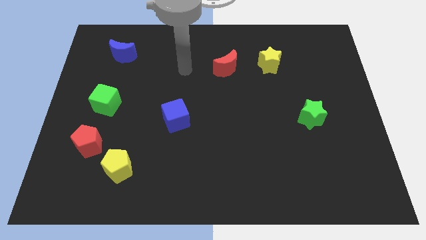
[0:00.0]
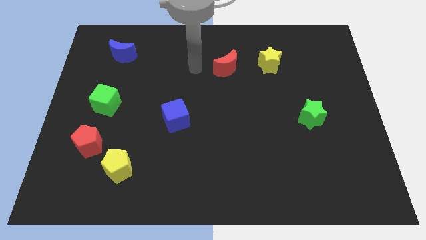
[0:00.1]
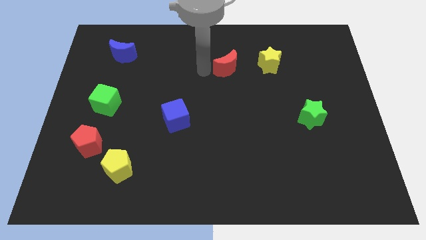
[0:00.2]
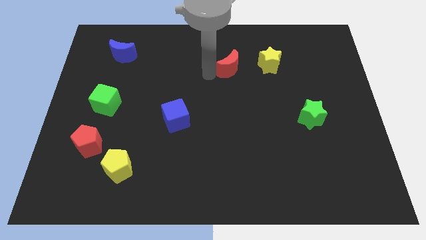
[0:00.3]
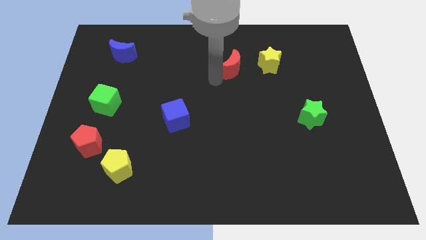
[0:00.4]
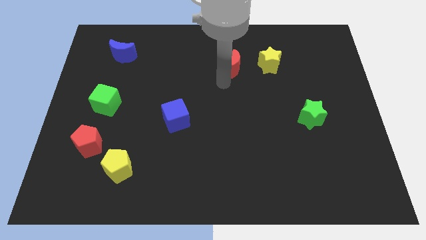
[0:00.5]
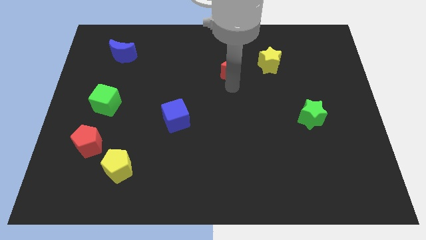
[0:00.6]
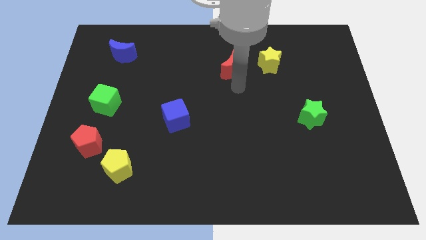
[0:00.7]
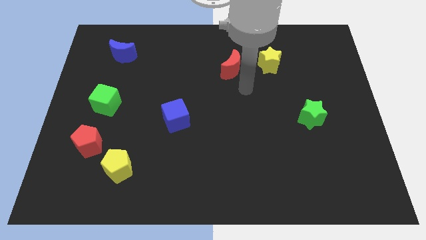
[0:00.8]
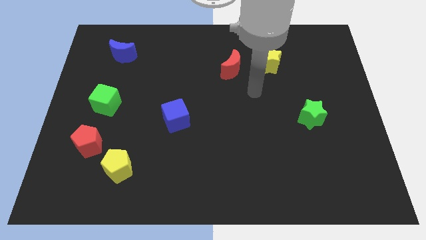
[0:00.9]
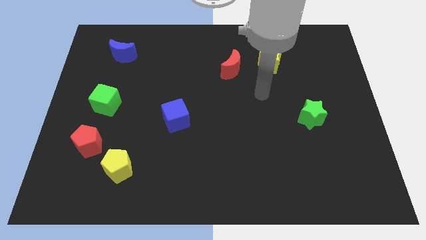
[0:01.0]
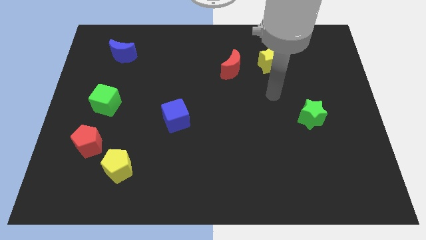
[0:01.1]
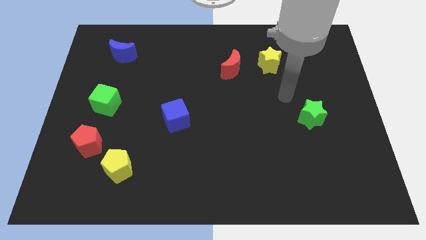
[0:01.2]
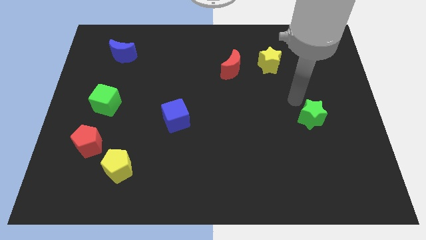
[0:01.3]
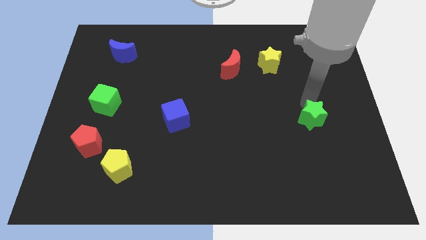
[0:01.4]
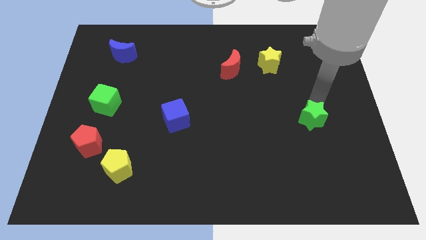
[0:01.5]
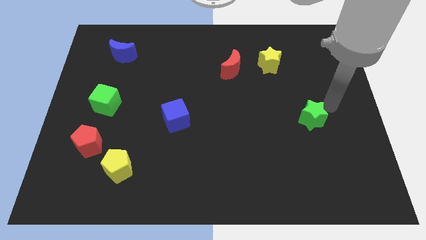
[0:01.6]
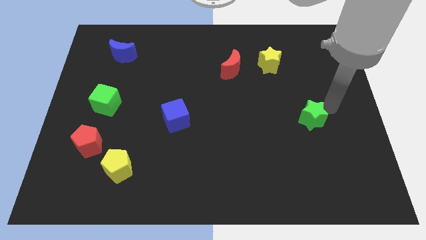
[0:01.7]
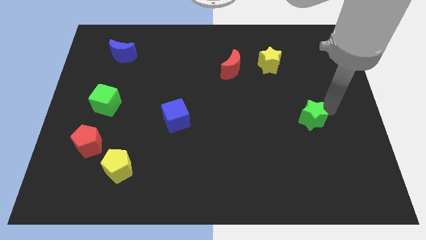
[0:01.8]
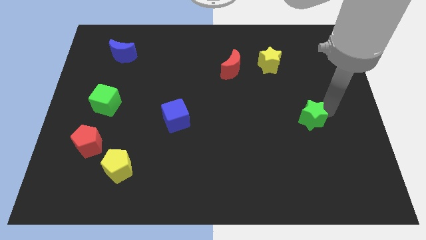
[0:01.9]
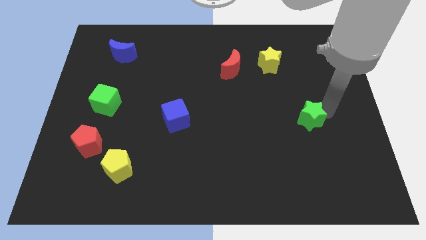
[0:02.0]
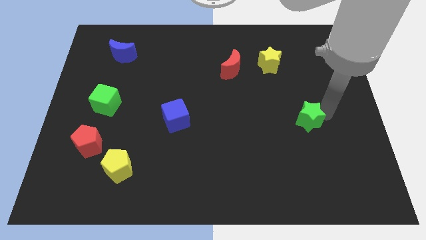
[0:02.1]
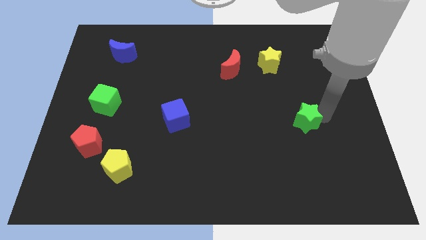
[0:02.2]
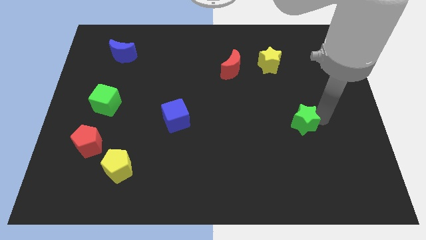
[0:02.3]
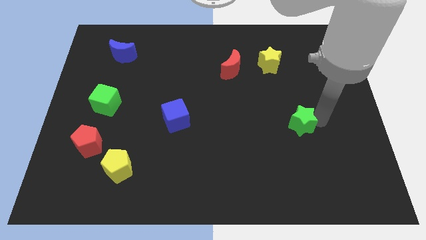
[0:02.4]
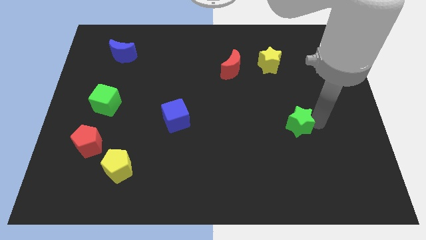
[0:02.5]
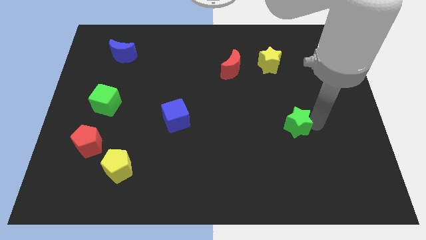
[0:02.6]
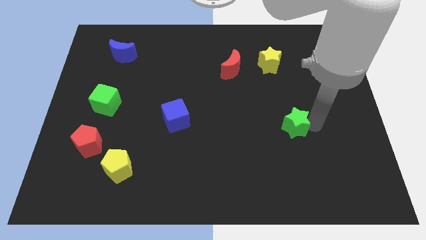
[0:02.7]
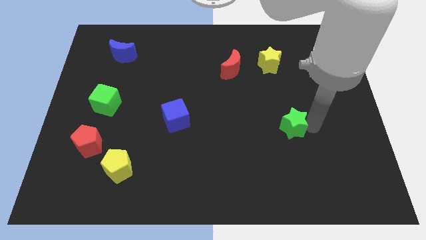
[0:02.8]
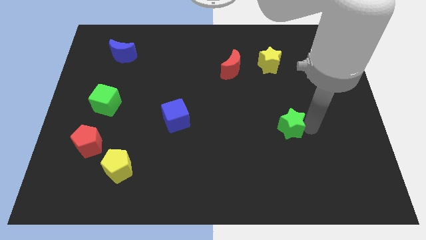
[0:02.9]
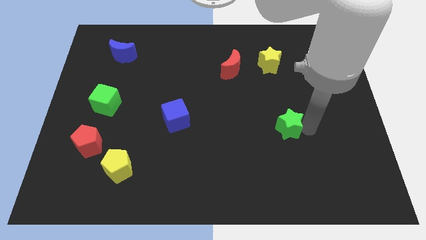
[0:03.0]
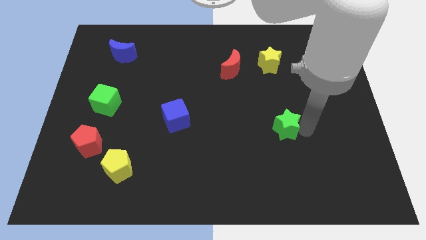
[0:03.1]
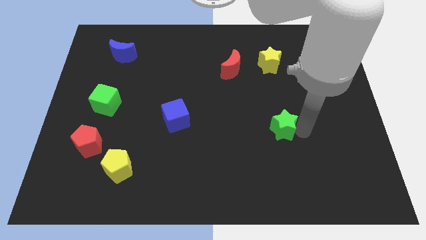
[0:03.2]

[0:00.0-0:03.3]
move the green star somewhat down and left

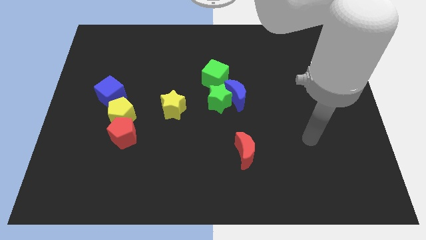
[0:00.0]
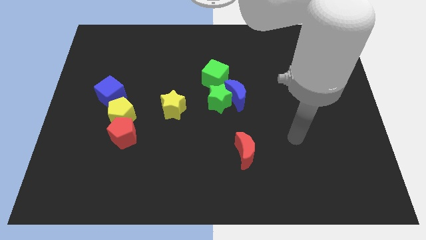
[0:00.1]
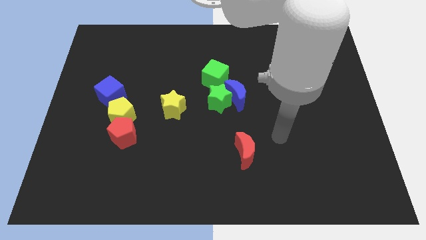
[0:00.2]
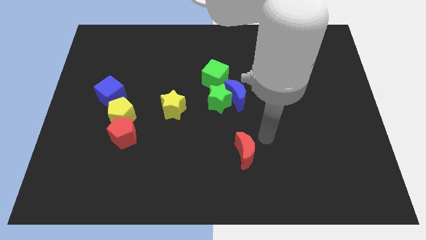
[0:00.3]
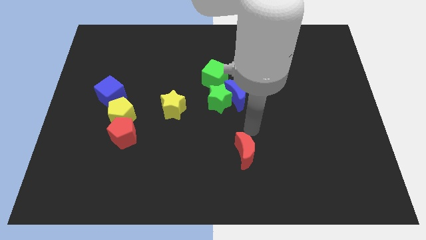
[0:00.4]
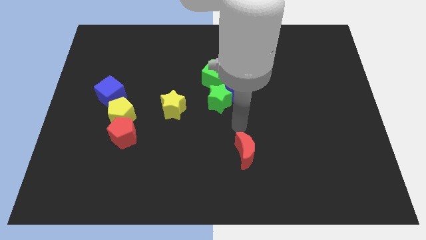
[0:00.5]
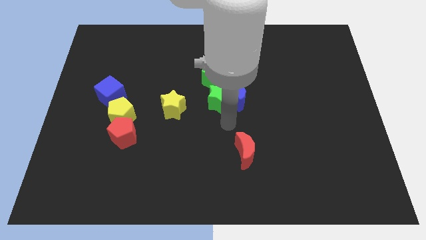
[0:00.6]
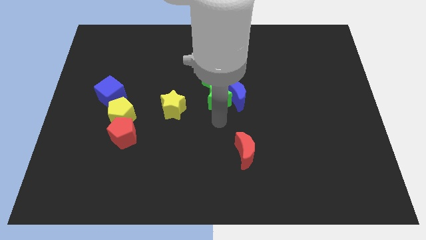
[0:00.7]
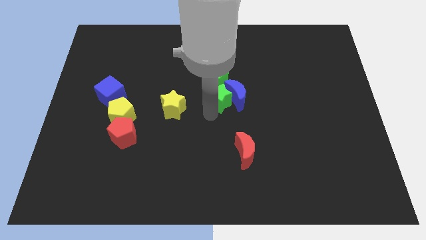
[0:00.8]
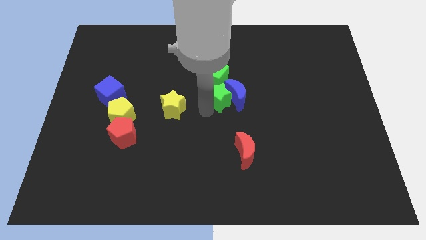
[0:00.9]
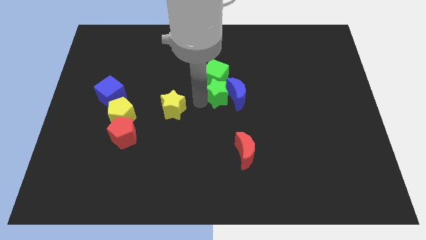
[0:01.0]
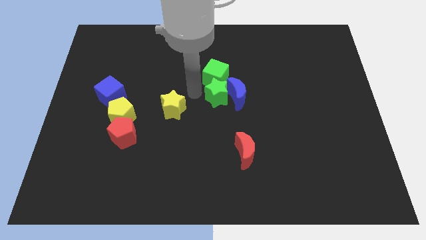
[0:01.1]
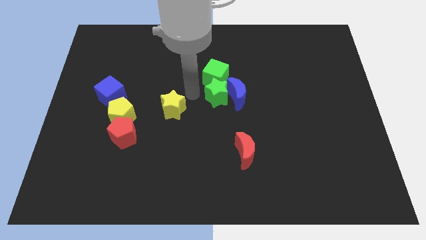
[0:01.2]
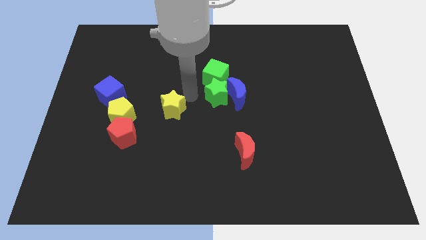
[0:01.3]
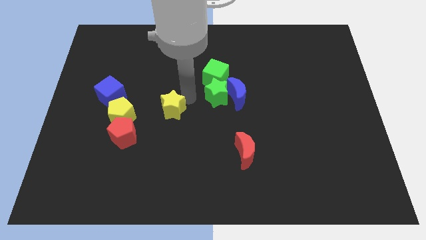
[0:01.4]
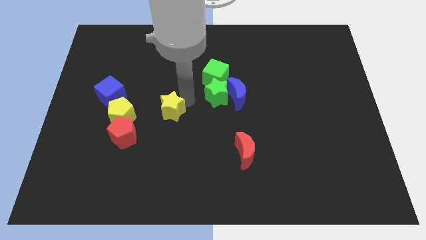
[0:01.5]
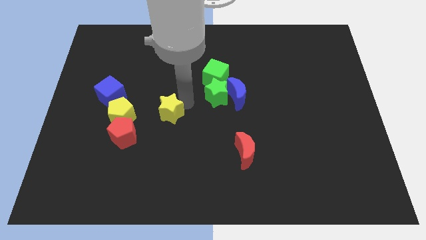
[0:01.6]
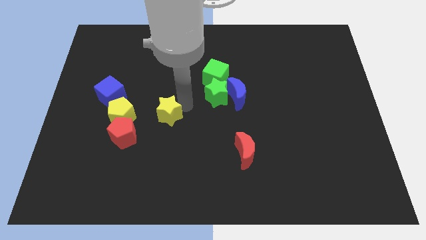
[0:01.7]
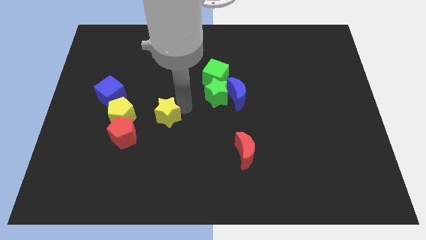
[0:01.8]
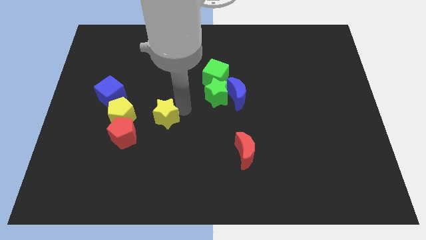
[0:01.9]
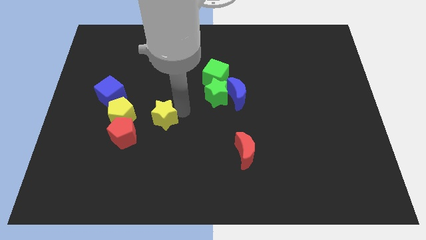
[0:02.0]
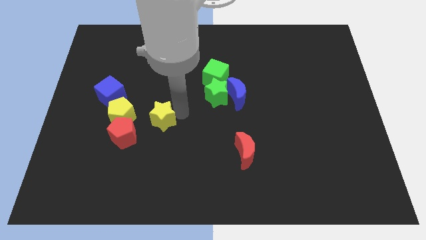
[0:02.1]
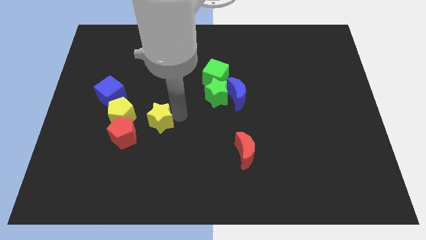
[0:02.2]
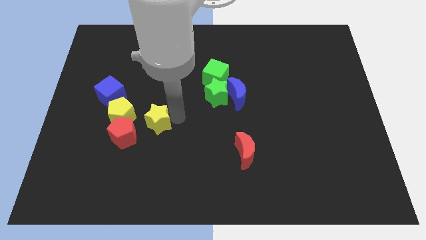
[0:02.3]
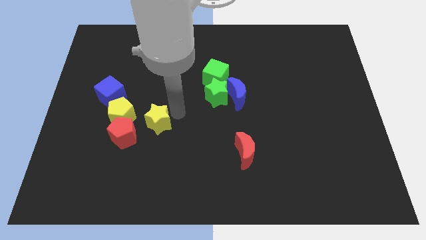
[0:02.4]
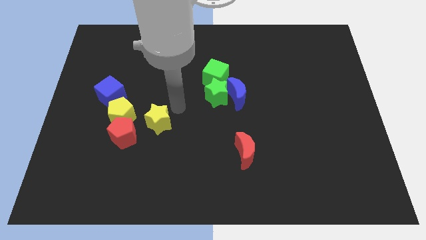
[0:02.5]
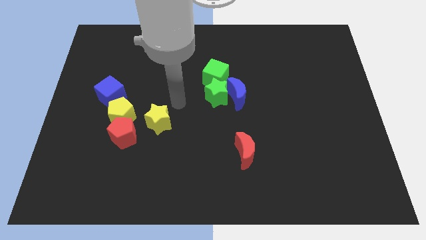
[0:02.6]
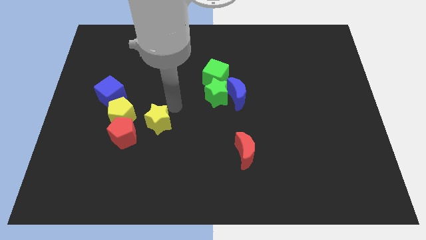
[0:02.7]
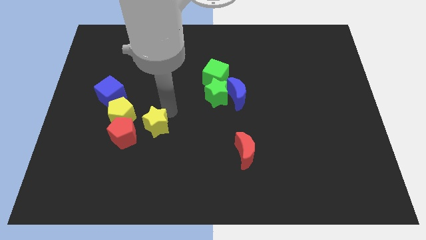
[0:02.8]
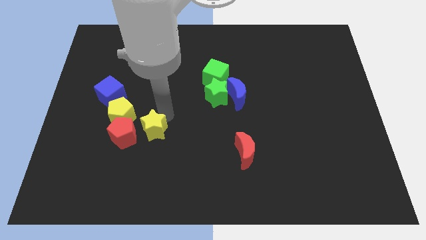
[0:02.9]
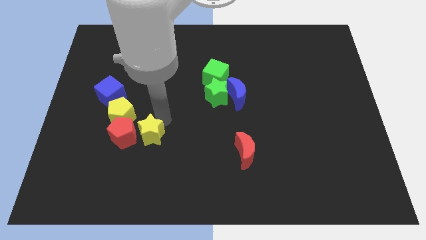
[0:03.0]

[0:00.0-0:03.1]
push the yellow star a little bit downwards and then to the left

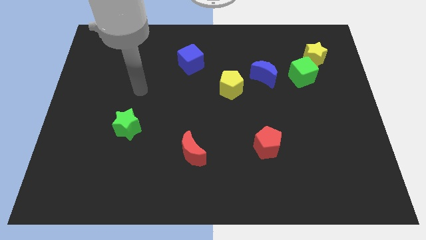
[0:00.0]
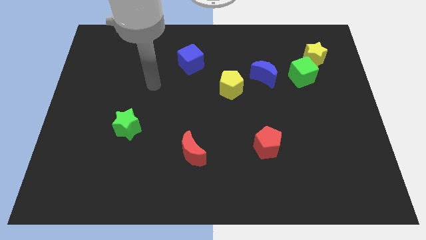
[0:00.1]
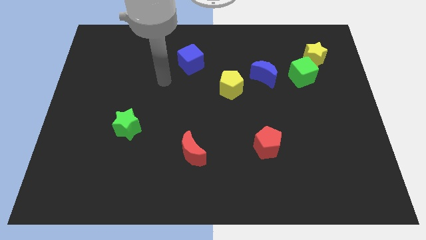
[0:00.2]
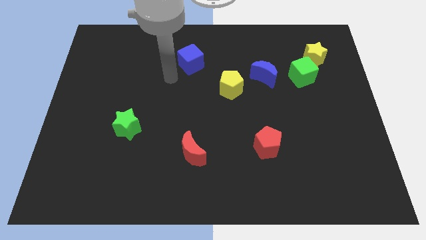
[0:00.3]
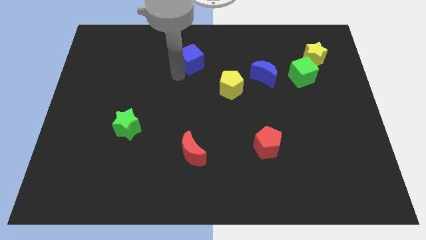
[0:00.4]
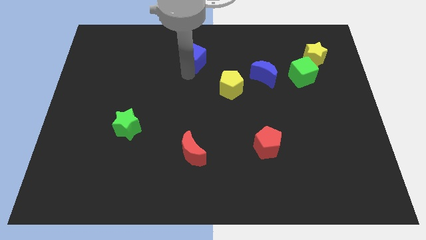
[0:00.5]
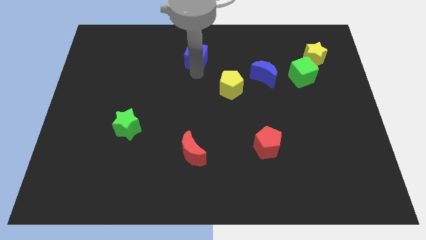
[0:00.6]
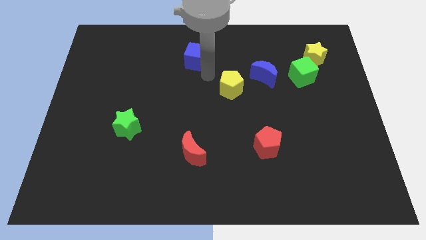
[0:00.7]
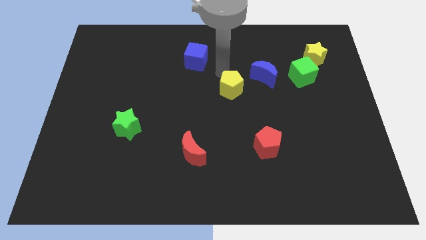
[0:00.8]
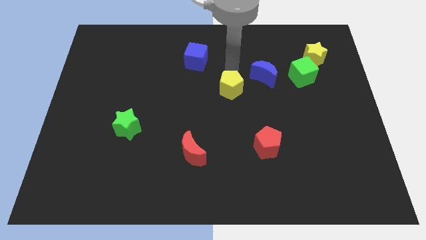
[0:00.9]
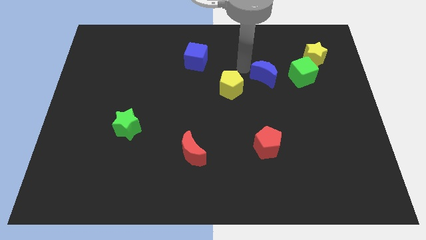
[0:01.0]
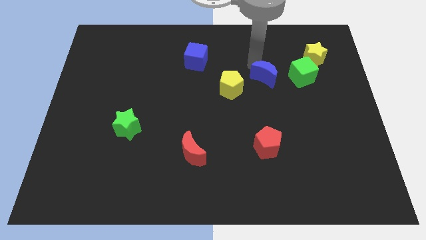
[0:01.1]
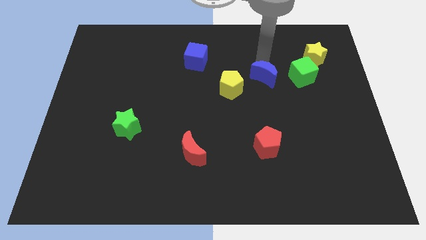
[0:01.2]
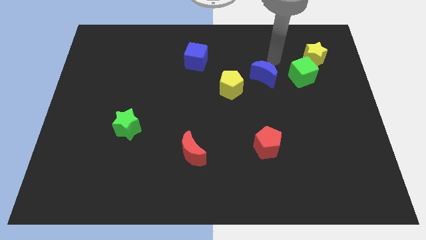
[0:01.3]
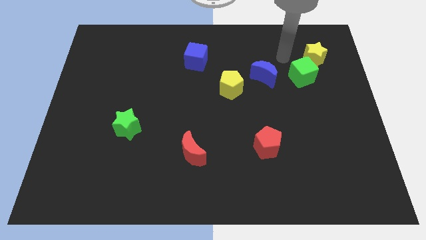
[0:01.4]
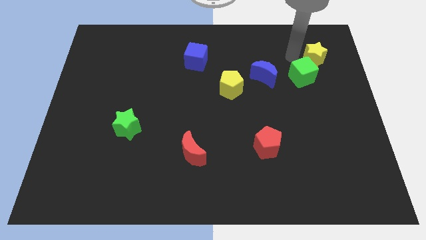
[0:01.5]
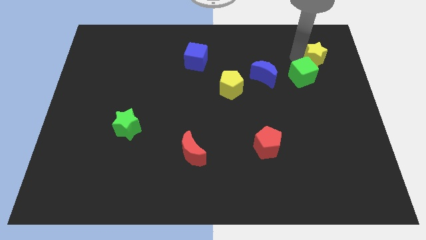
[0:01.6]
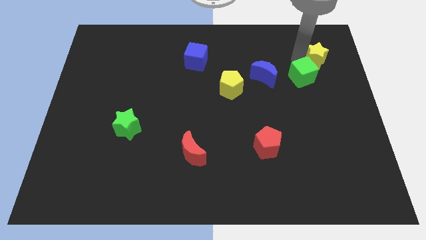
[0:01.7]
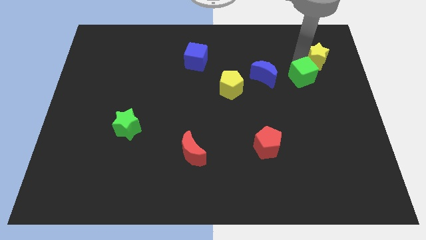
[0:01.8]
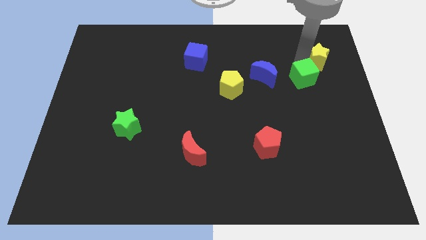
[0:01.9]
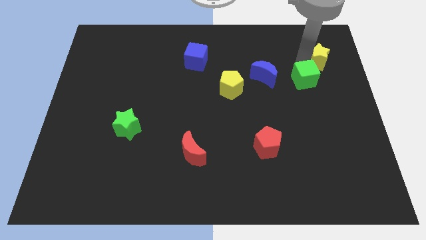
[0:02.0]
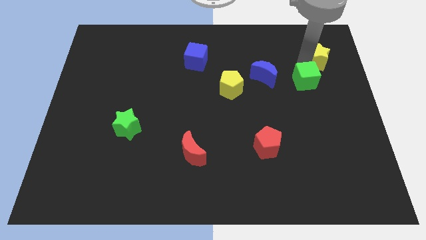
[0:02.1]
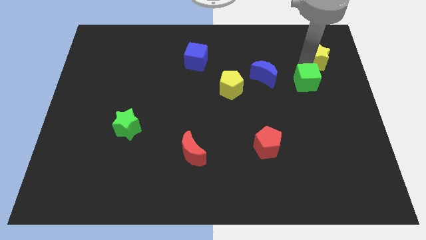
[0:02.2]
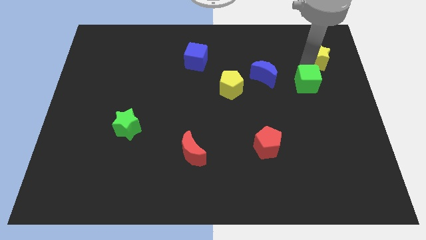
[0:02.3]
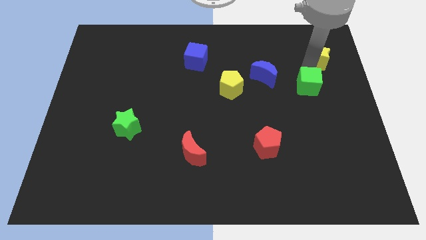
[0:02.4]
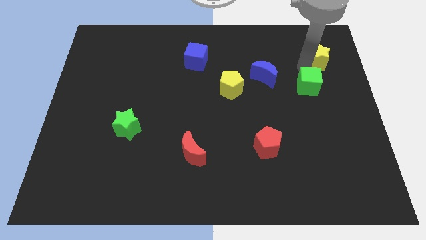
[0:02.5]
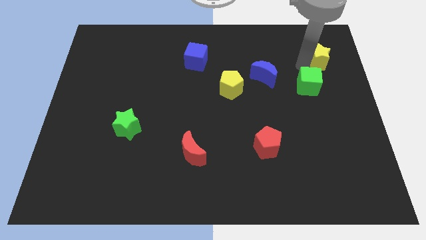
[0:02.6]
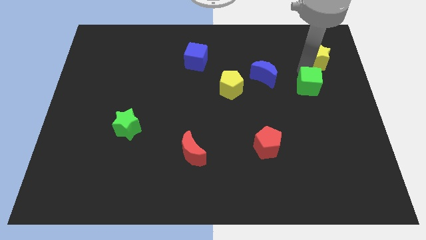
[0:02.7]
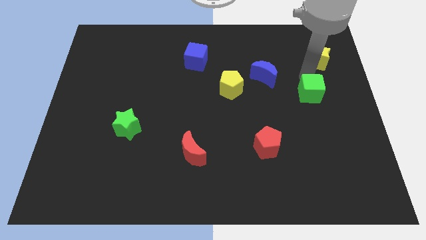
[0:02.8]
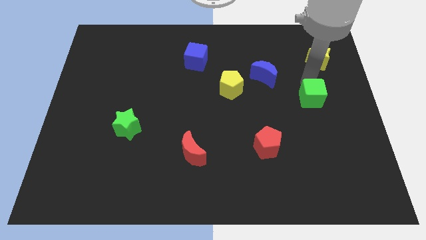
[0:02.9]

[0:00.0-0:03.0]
push the green cube downwards a bit
